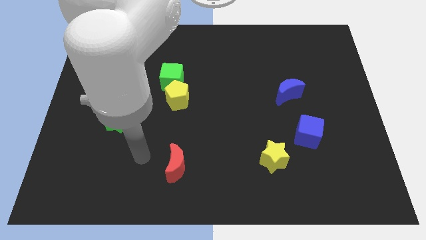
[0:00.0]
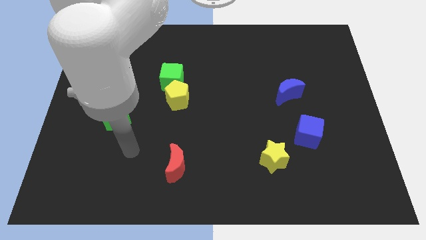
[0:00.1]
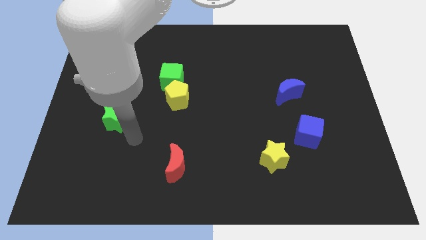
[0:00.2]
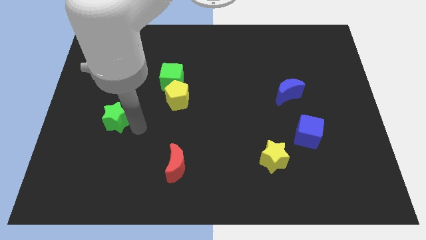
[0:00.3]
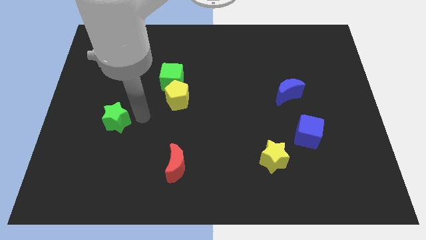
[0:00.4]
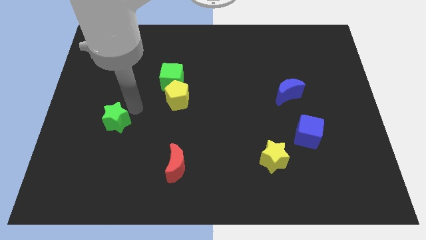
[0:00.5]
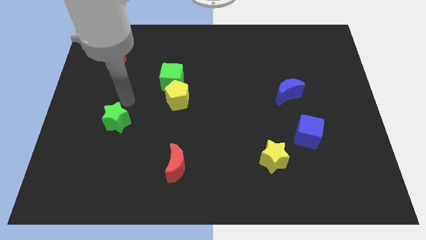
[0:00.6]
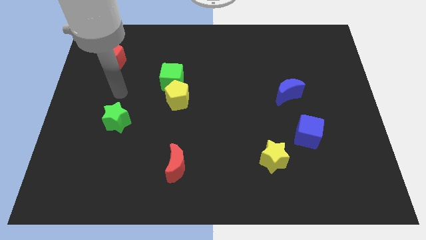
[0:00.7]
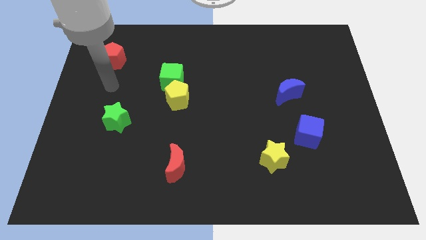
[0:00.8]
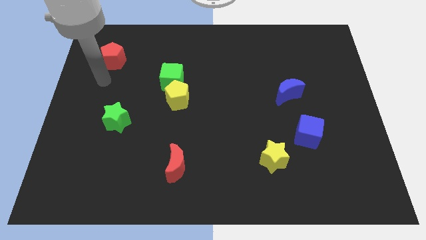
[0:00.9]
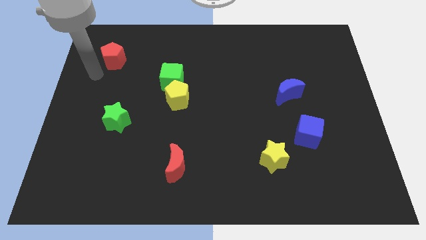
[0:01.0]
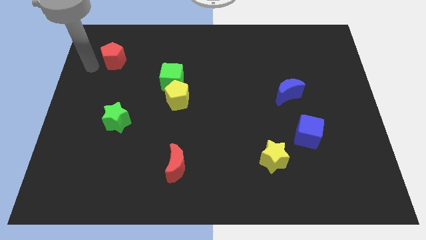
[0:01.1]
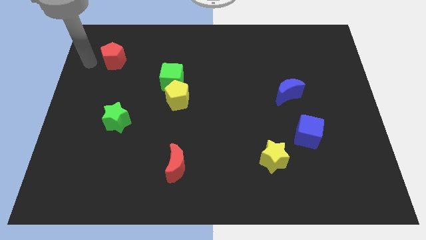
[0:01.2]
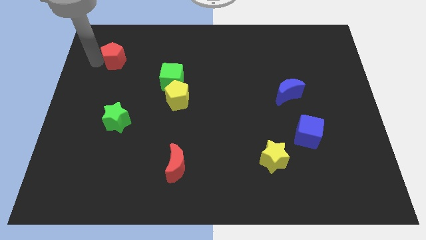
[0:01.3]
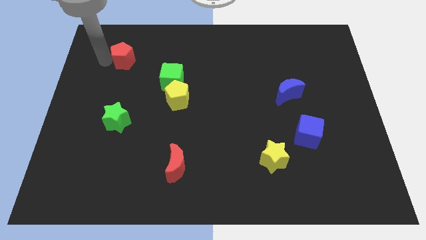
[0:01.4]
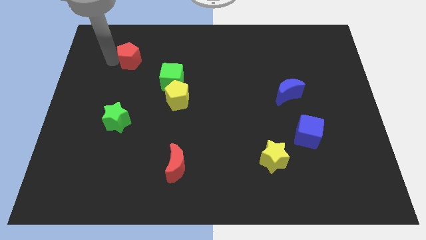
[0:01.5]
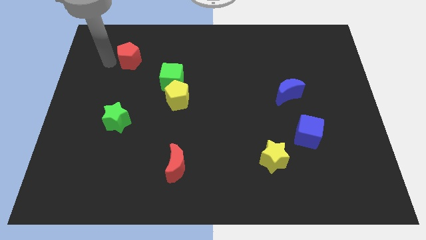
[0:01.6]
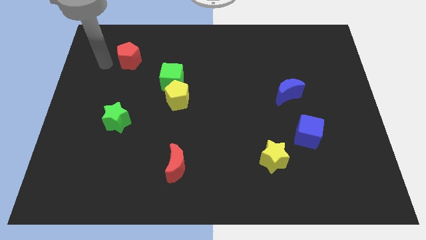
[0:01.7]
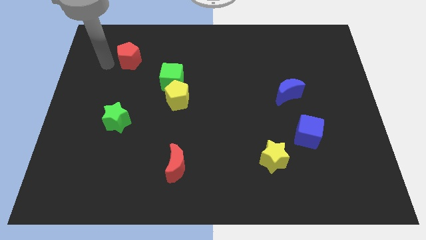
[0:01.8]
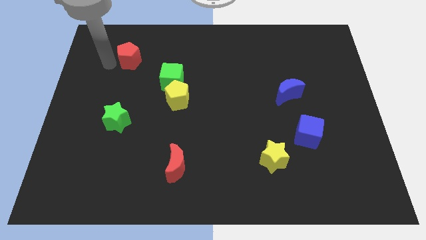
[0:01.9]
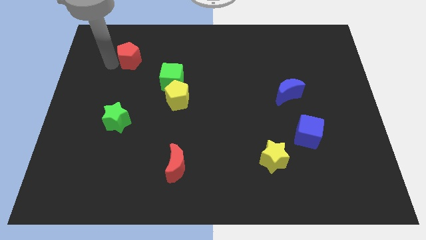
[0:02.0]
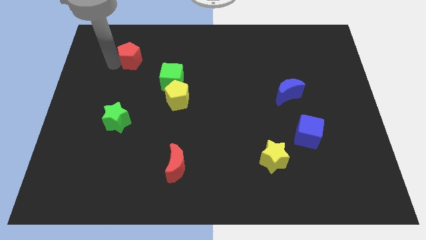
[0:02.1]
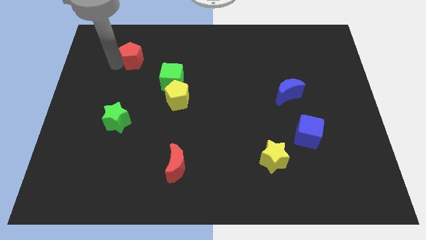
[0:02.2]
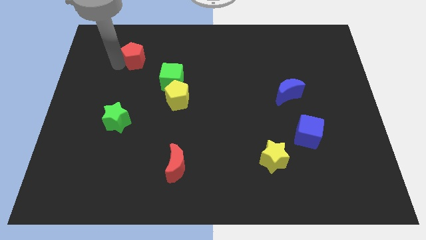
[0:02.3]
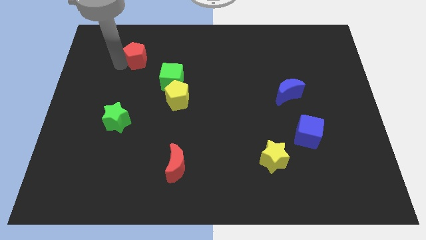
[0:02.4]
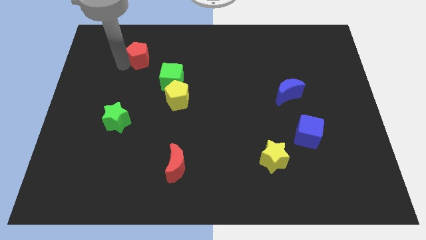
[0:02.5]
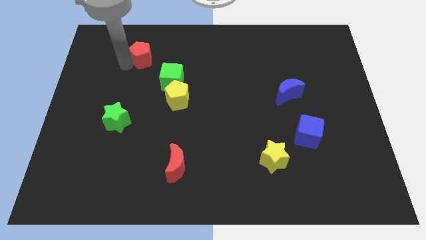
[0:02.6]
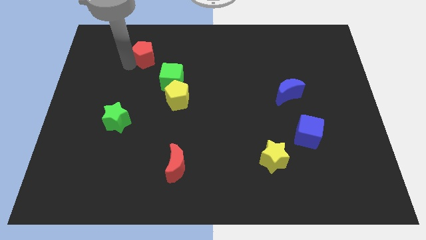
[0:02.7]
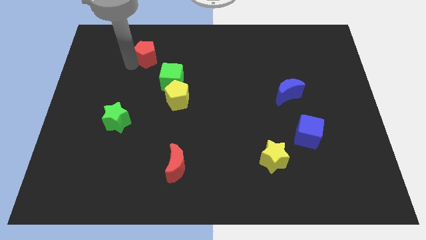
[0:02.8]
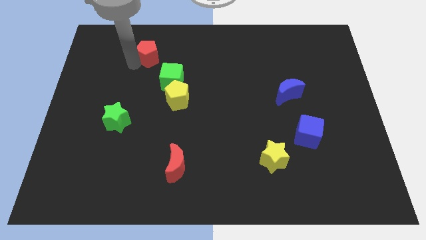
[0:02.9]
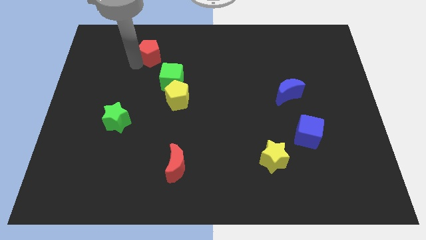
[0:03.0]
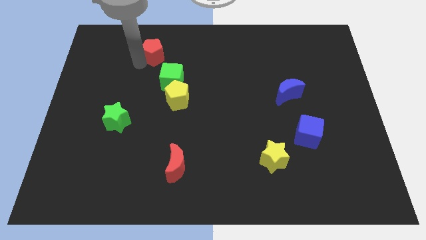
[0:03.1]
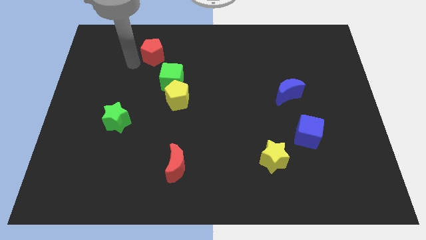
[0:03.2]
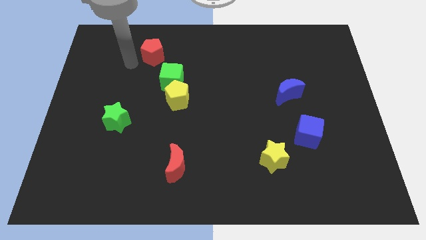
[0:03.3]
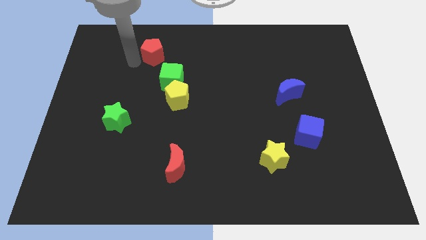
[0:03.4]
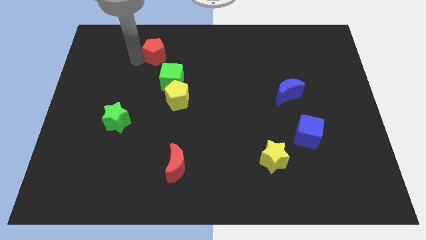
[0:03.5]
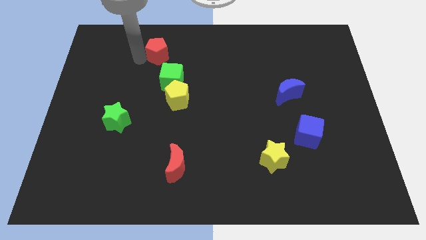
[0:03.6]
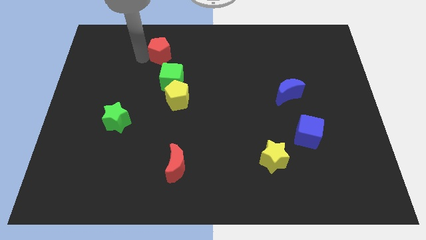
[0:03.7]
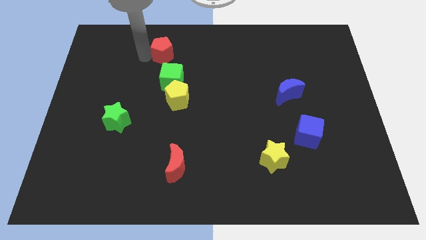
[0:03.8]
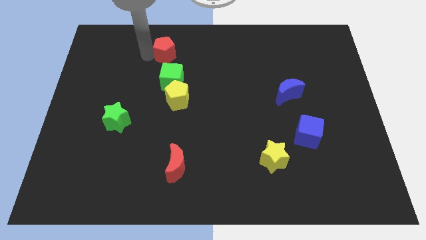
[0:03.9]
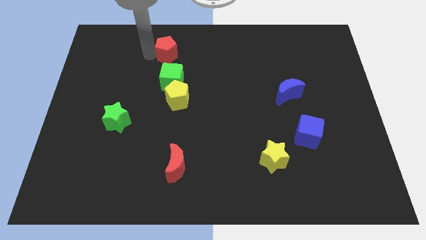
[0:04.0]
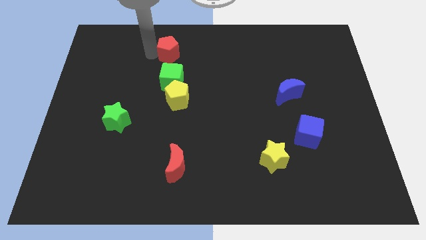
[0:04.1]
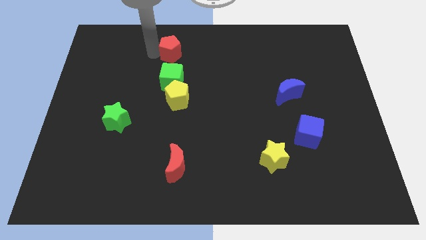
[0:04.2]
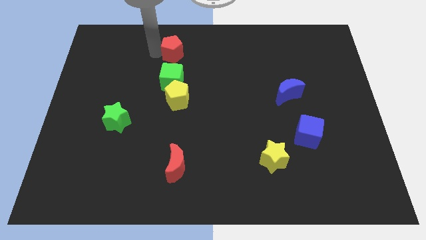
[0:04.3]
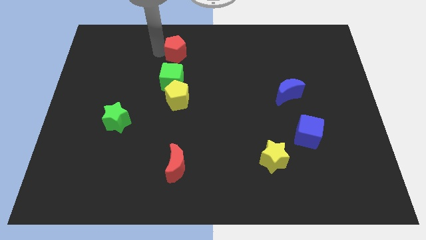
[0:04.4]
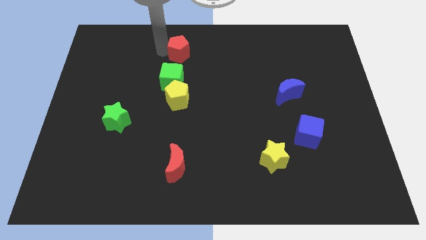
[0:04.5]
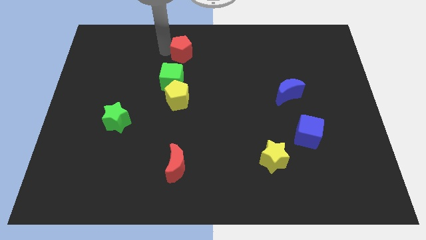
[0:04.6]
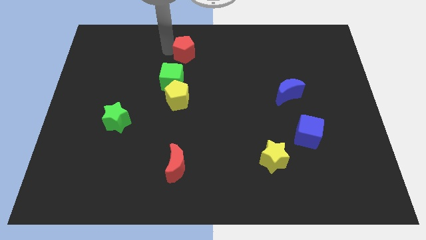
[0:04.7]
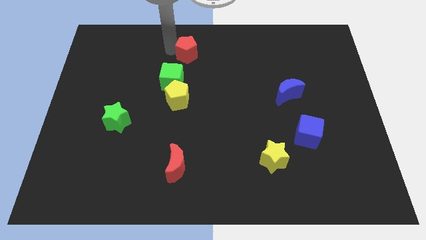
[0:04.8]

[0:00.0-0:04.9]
slide the red pentagon to the top side

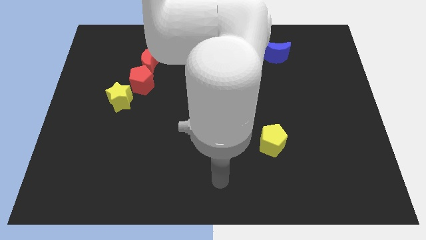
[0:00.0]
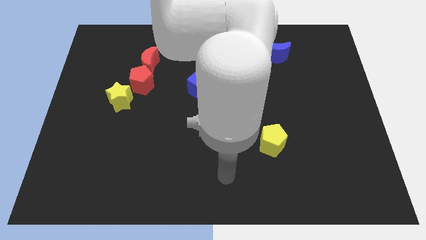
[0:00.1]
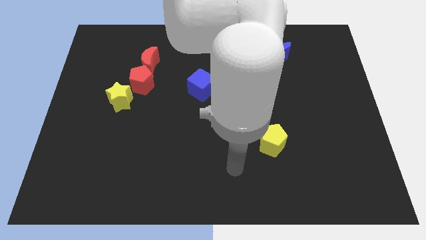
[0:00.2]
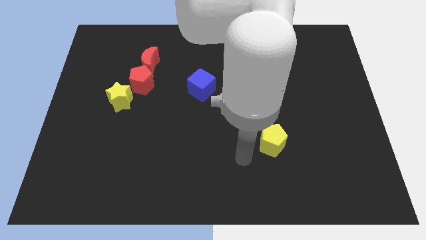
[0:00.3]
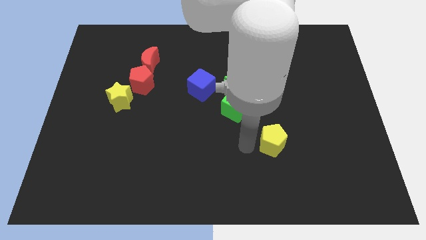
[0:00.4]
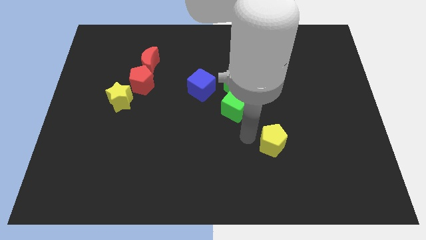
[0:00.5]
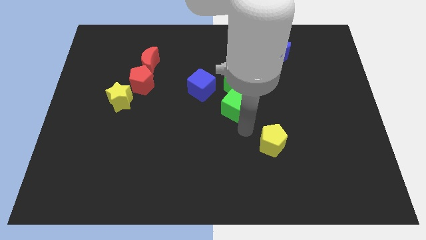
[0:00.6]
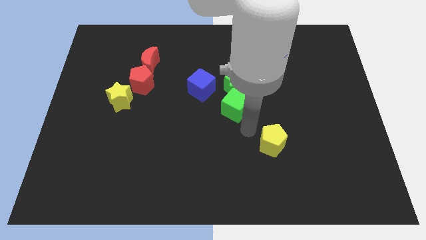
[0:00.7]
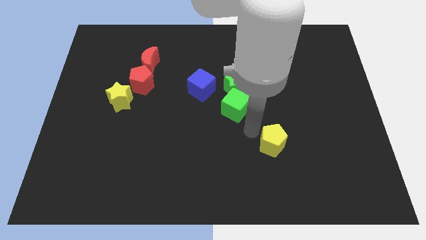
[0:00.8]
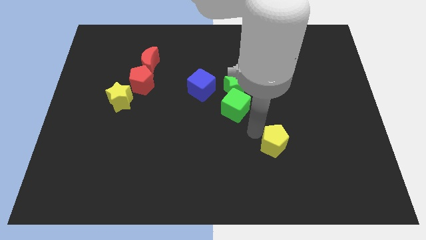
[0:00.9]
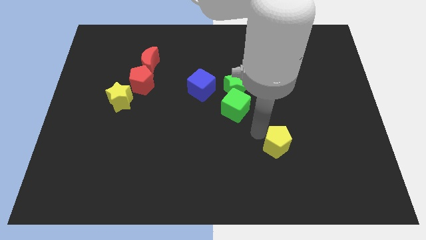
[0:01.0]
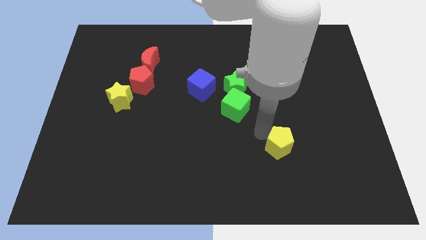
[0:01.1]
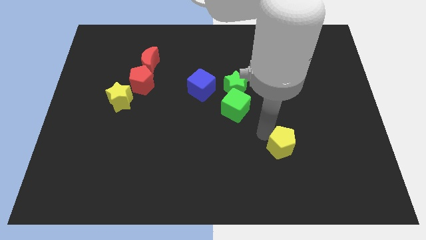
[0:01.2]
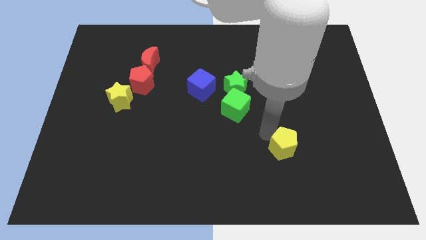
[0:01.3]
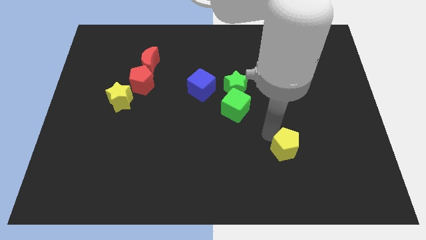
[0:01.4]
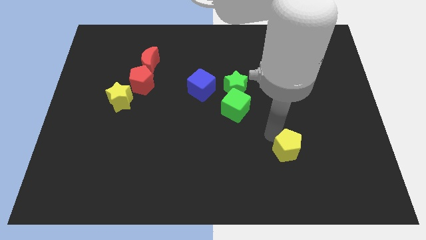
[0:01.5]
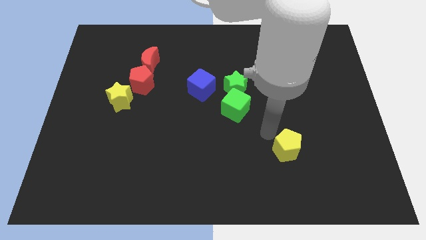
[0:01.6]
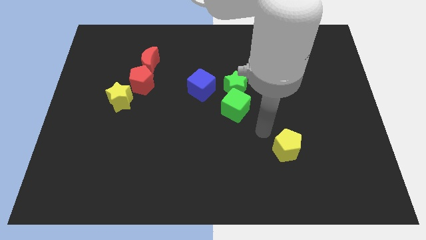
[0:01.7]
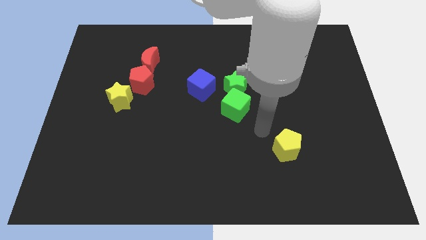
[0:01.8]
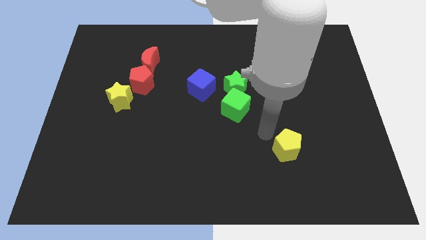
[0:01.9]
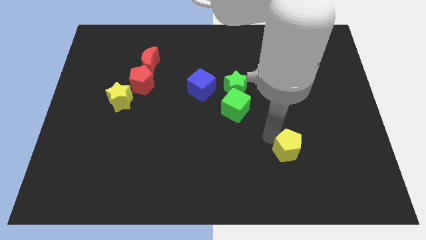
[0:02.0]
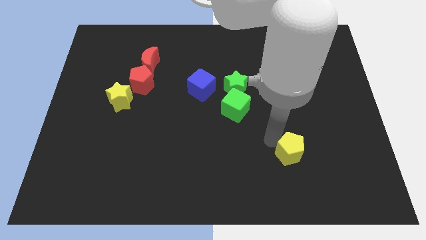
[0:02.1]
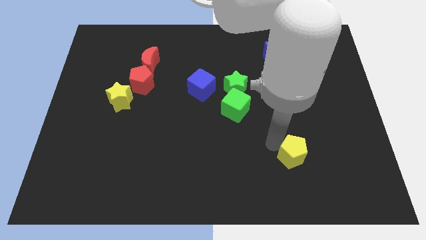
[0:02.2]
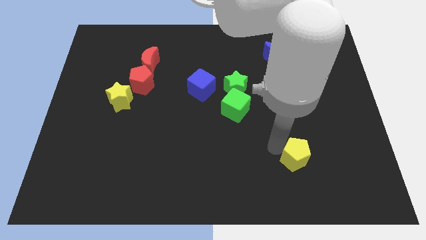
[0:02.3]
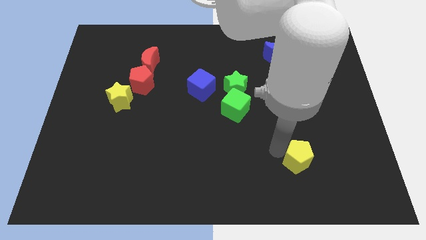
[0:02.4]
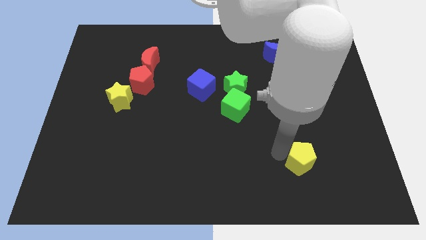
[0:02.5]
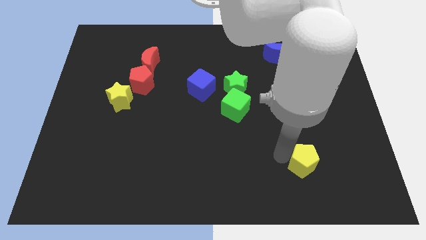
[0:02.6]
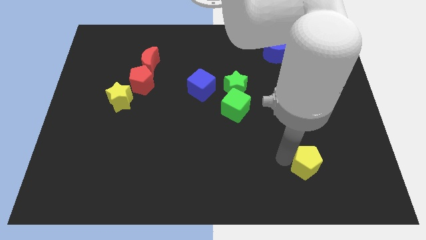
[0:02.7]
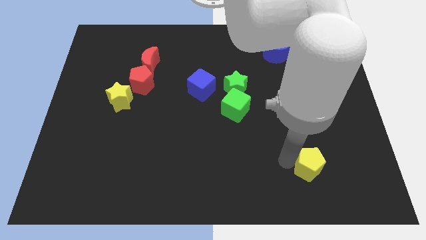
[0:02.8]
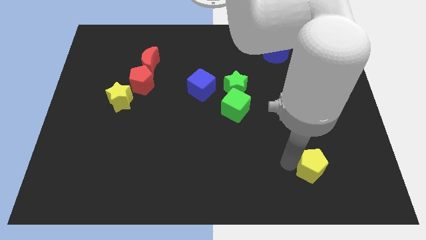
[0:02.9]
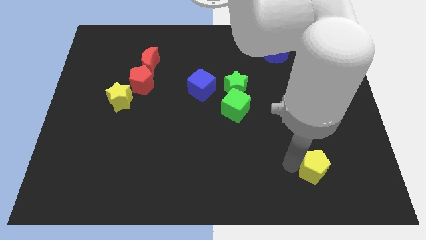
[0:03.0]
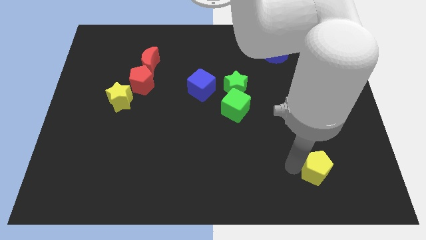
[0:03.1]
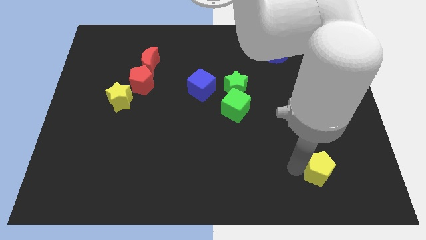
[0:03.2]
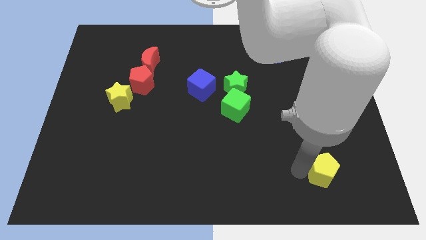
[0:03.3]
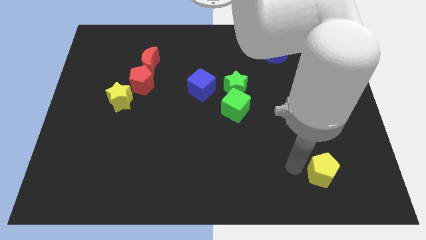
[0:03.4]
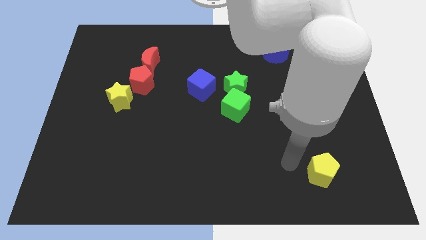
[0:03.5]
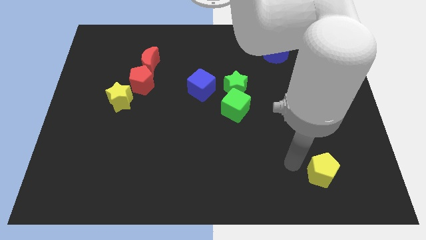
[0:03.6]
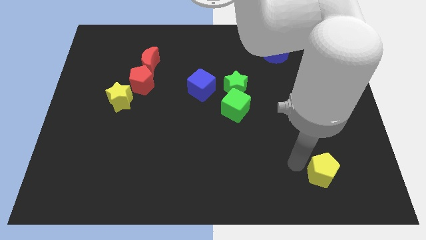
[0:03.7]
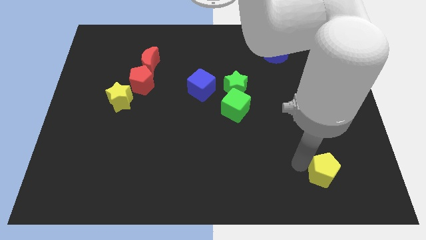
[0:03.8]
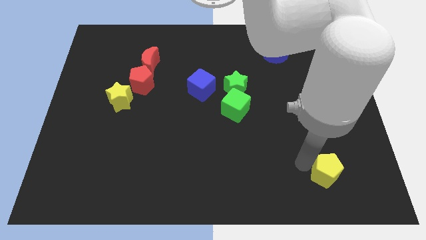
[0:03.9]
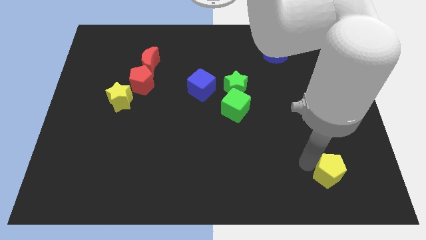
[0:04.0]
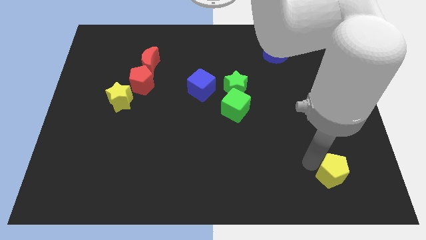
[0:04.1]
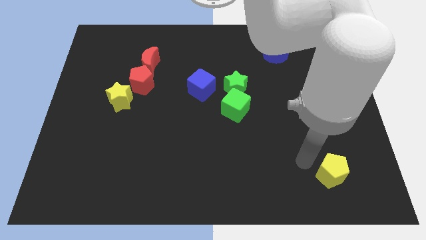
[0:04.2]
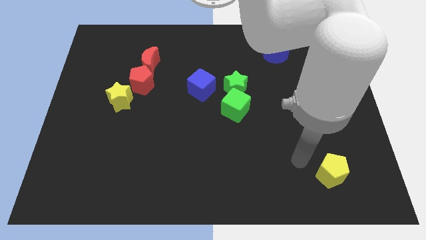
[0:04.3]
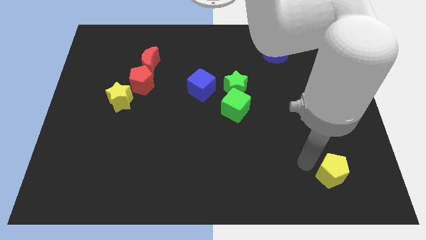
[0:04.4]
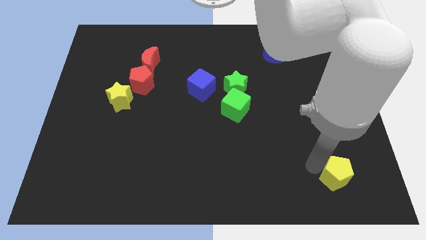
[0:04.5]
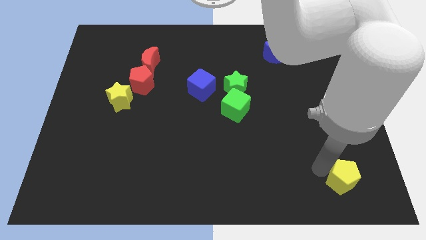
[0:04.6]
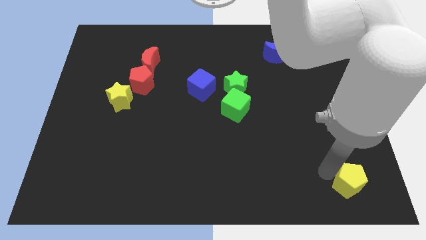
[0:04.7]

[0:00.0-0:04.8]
slide the yellow pentagon to the bottom right corner
